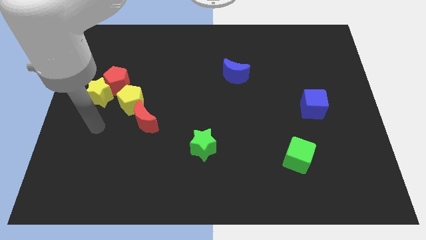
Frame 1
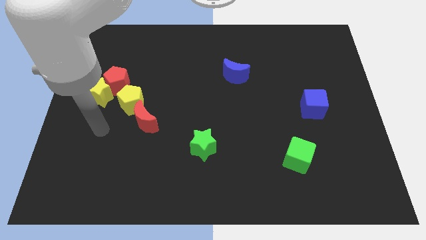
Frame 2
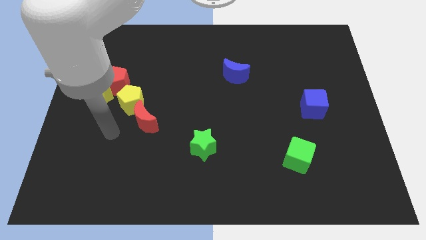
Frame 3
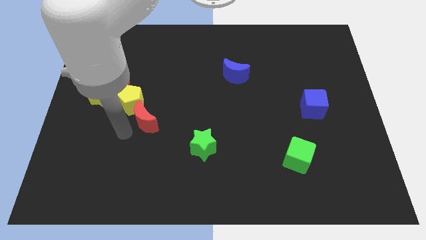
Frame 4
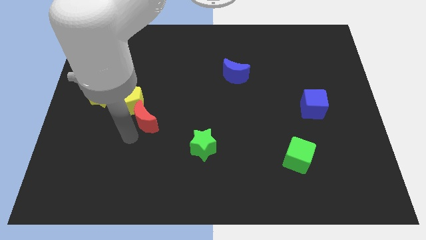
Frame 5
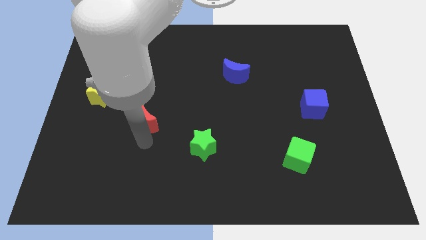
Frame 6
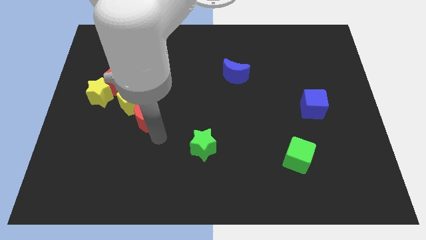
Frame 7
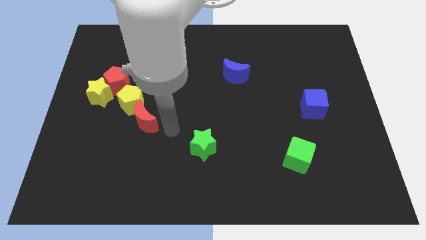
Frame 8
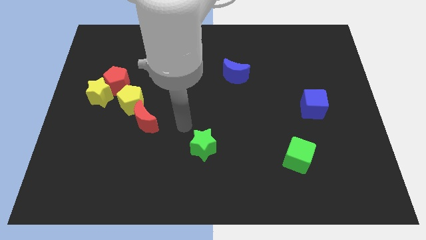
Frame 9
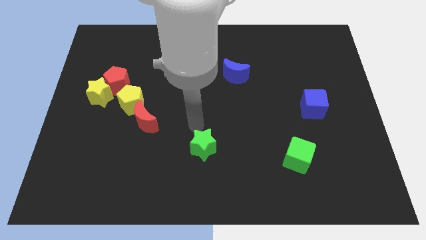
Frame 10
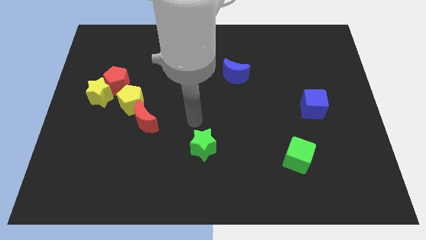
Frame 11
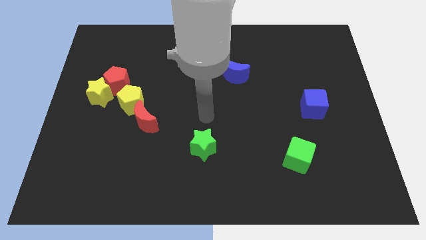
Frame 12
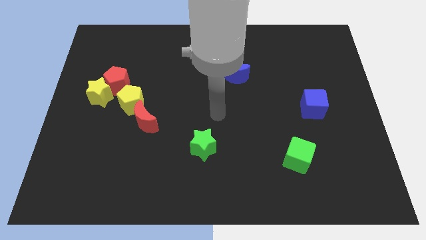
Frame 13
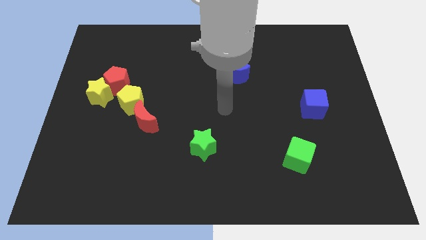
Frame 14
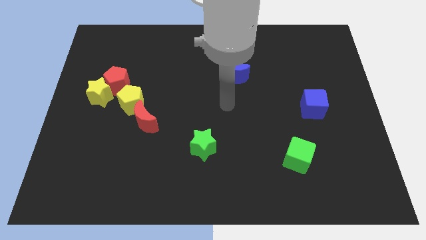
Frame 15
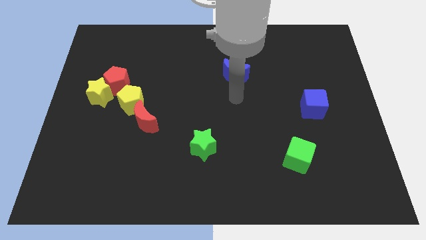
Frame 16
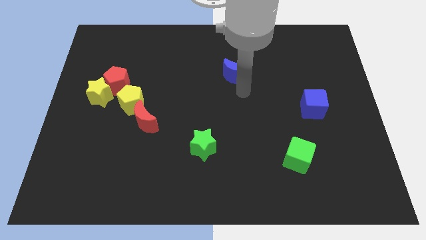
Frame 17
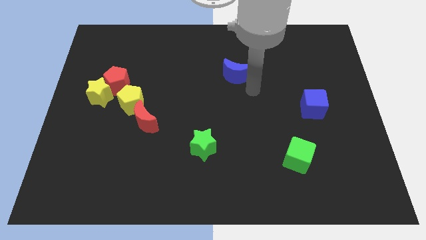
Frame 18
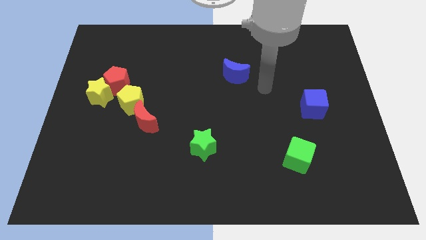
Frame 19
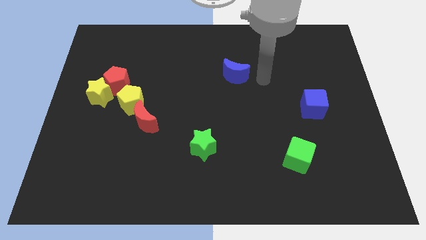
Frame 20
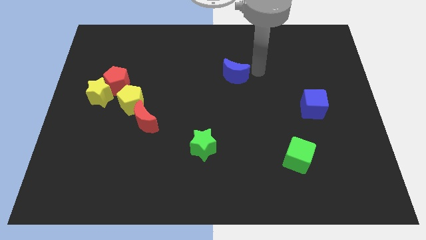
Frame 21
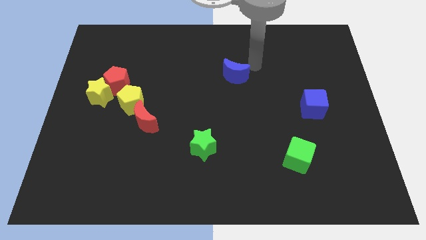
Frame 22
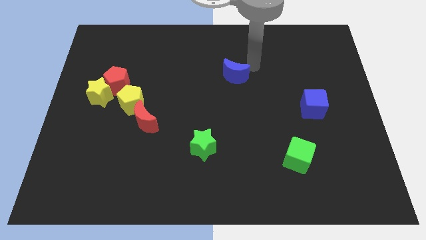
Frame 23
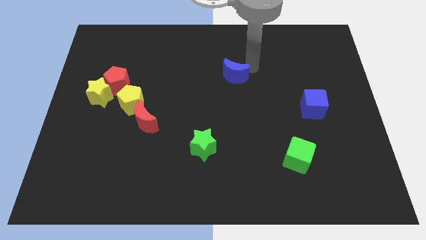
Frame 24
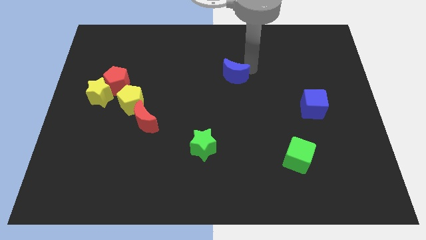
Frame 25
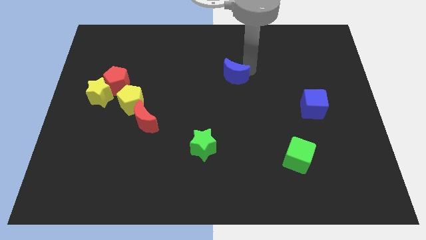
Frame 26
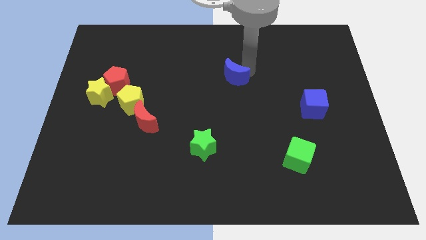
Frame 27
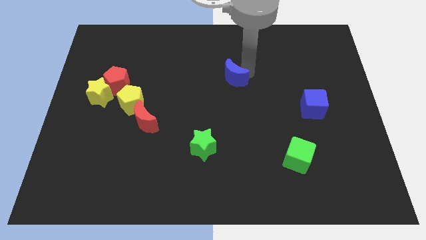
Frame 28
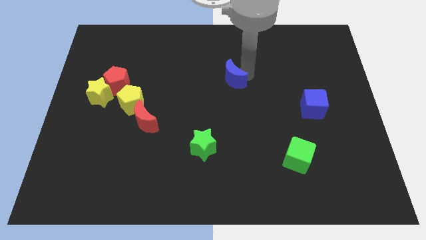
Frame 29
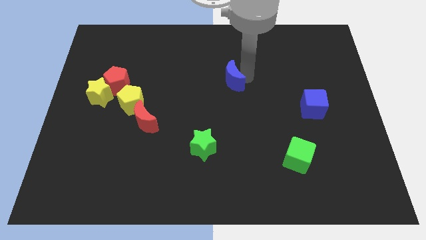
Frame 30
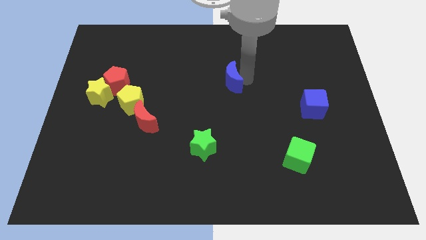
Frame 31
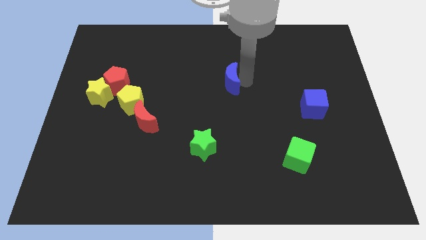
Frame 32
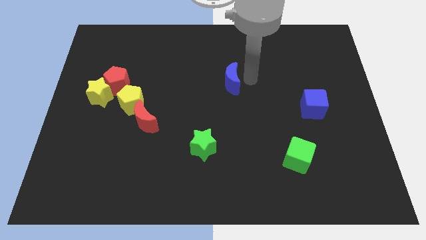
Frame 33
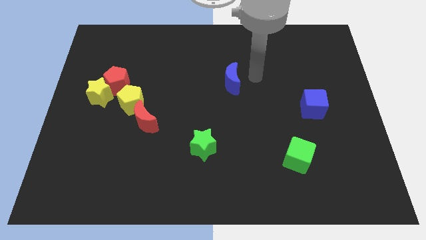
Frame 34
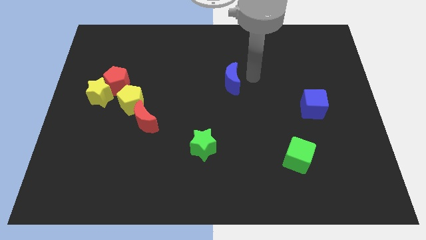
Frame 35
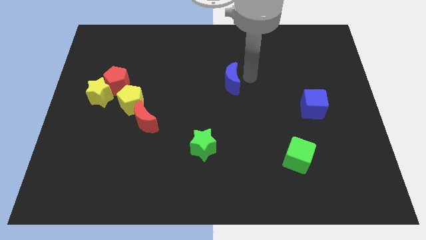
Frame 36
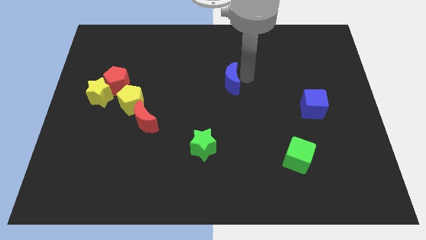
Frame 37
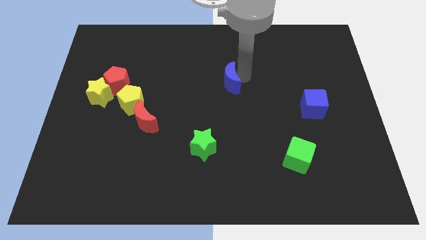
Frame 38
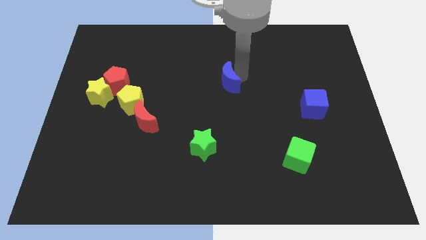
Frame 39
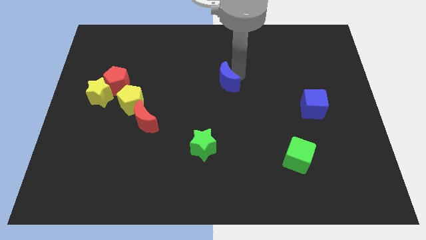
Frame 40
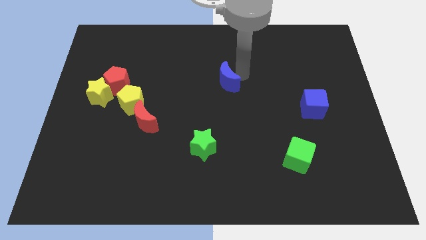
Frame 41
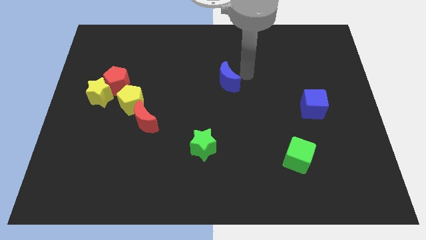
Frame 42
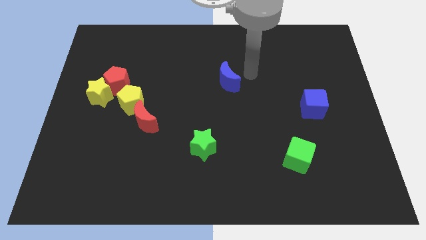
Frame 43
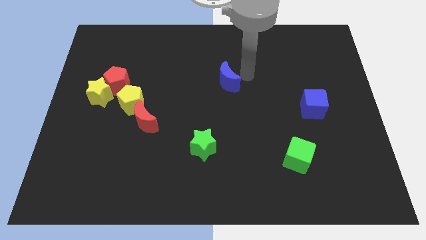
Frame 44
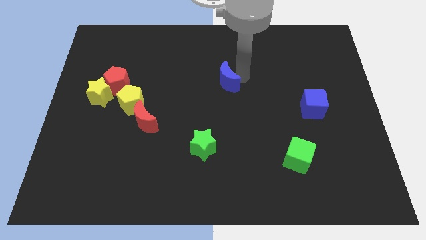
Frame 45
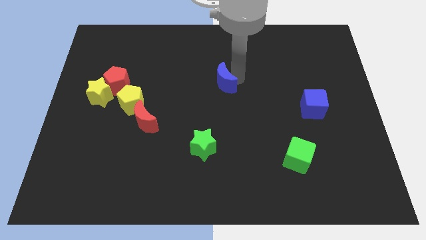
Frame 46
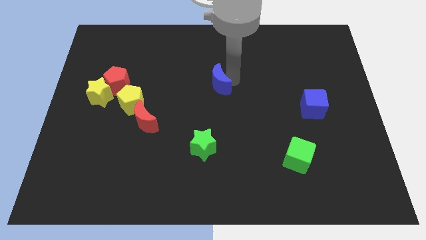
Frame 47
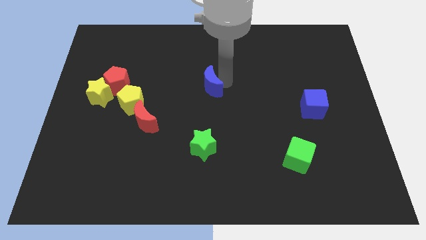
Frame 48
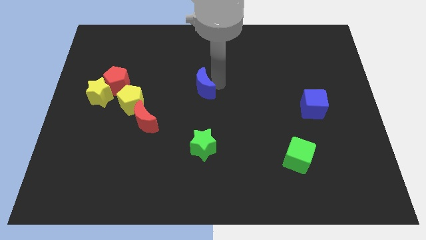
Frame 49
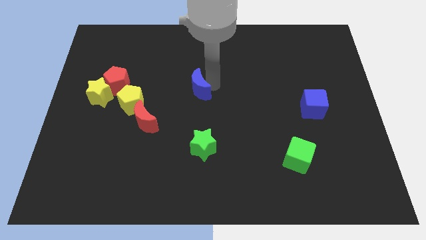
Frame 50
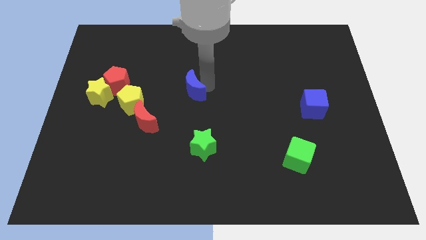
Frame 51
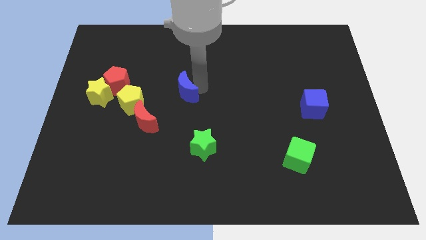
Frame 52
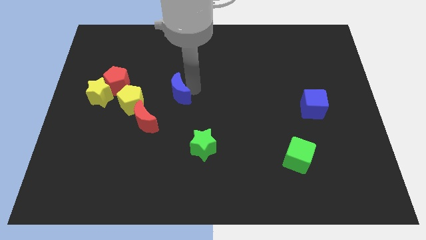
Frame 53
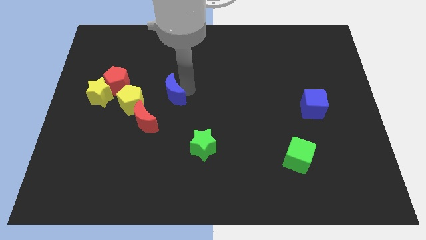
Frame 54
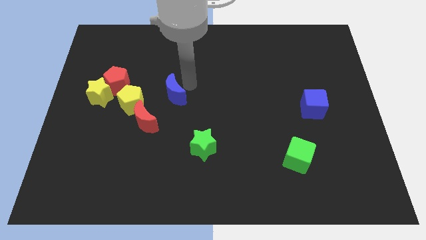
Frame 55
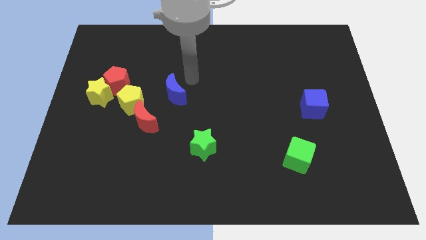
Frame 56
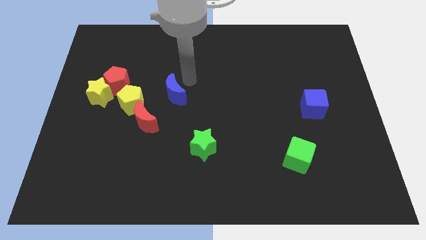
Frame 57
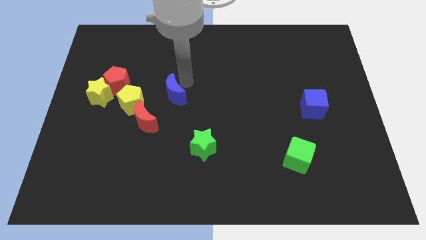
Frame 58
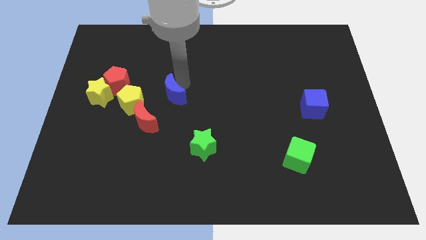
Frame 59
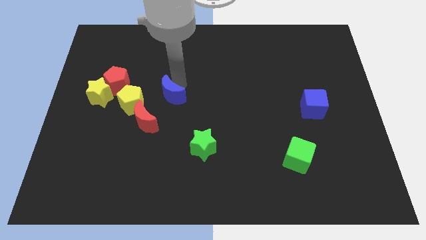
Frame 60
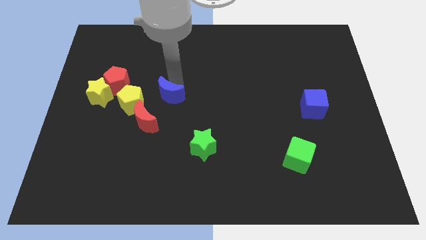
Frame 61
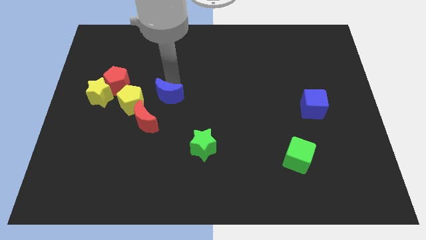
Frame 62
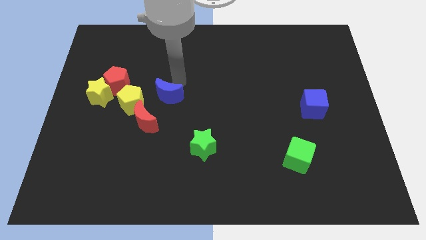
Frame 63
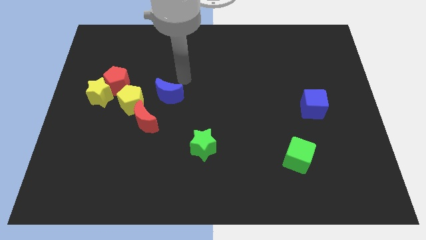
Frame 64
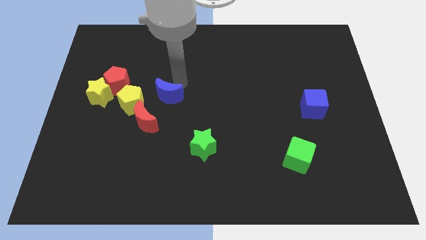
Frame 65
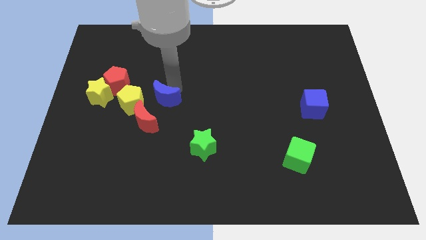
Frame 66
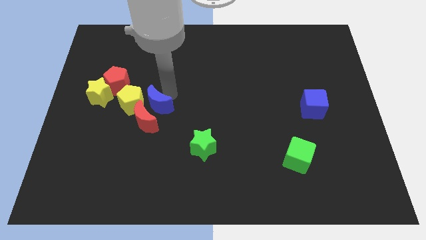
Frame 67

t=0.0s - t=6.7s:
move the blue moon to the red moon
